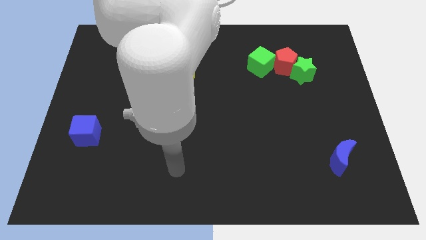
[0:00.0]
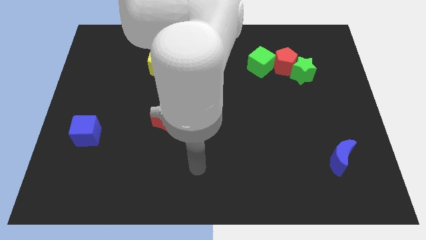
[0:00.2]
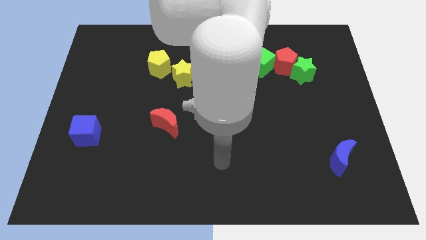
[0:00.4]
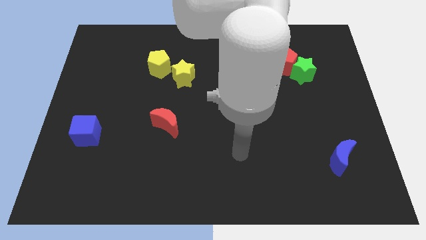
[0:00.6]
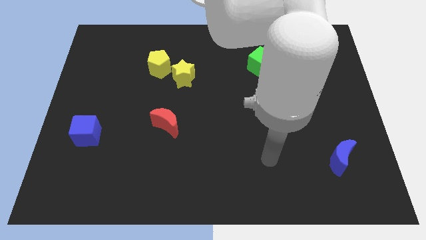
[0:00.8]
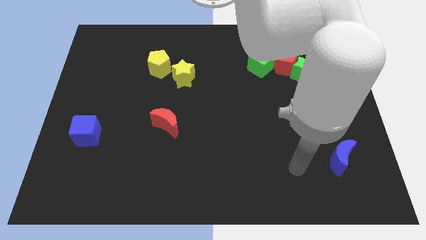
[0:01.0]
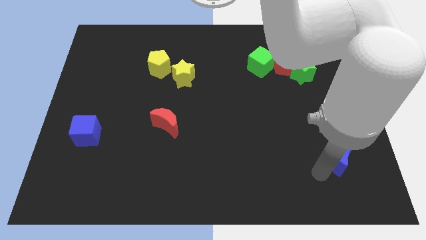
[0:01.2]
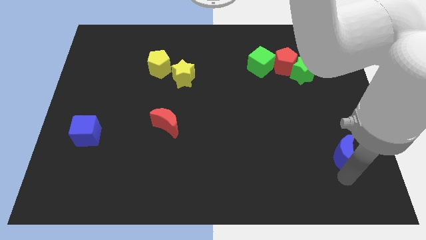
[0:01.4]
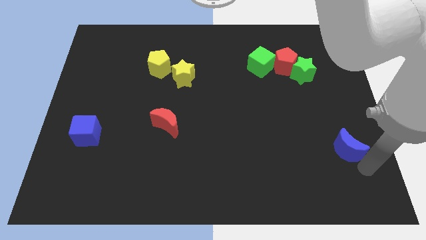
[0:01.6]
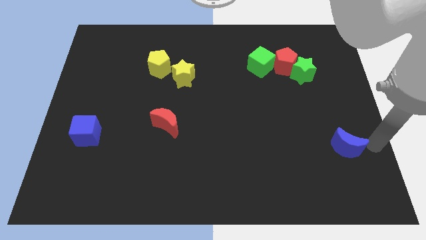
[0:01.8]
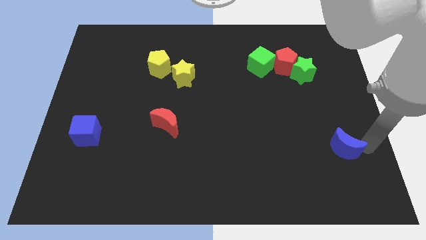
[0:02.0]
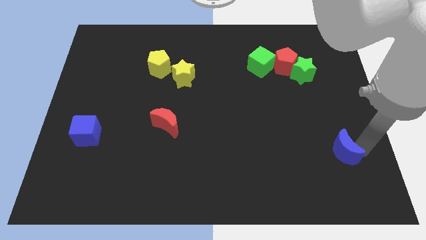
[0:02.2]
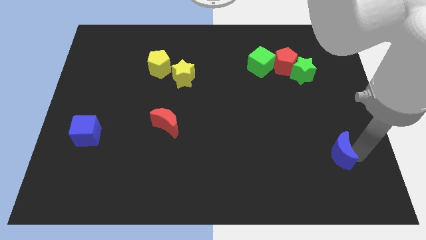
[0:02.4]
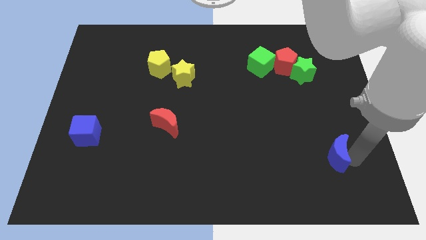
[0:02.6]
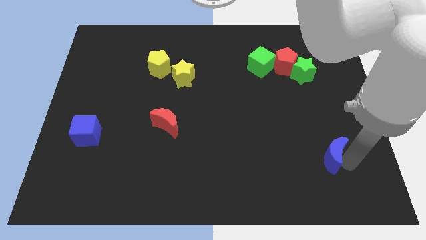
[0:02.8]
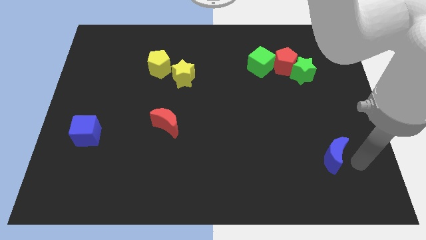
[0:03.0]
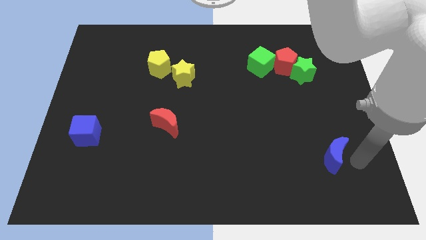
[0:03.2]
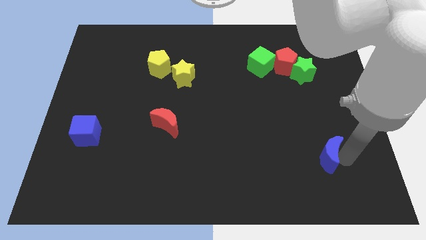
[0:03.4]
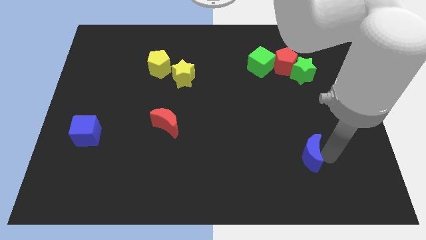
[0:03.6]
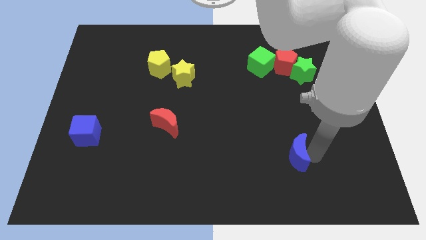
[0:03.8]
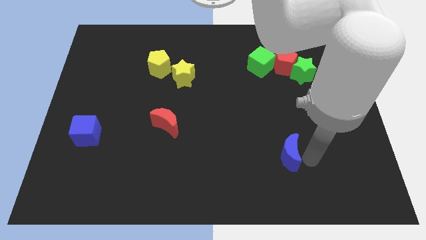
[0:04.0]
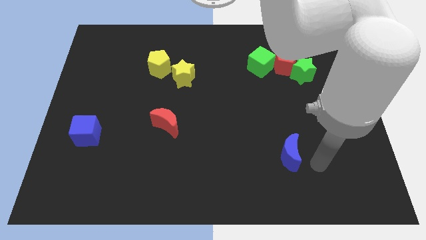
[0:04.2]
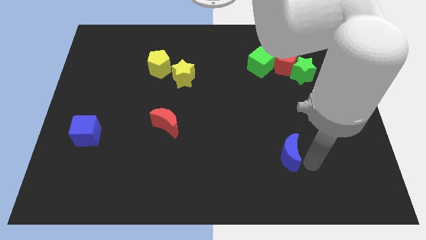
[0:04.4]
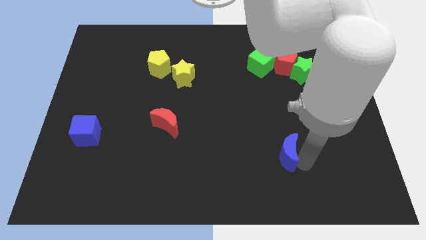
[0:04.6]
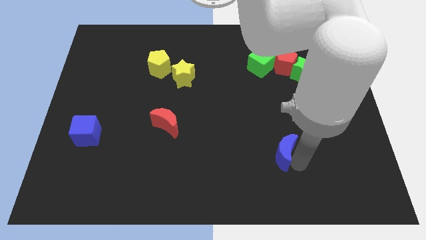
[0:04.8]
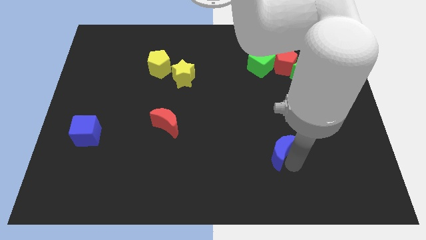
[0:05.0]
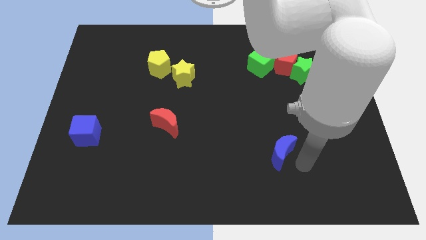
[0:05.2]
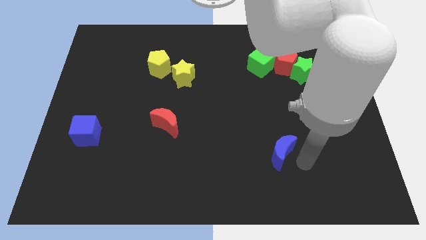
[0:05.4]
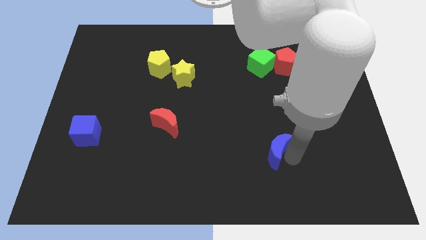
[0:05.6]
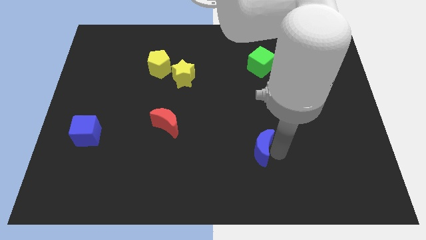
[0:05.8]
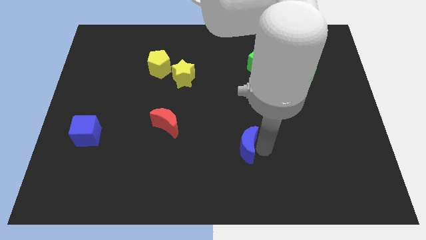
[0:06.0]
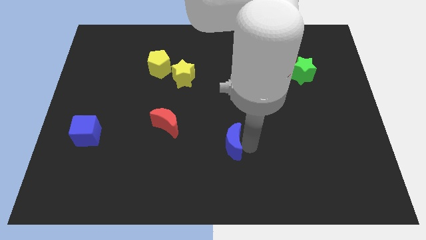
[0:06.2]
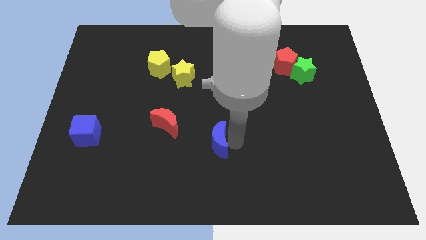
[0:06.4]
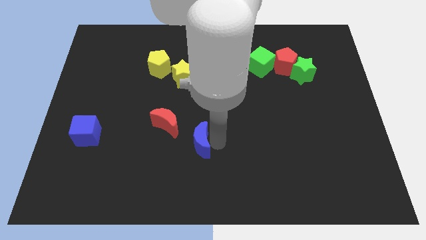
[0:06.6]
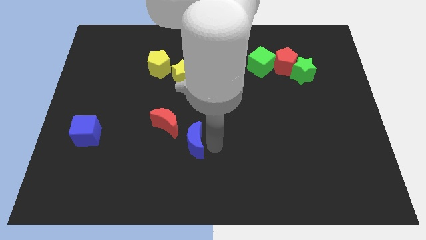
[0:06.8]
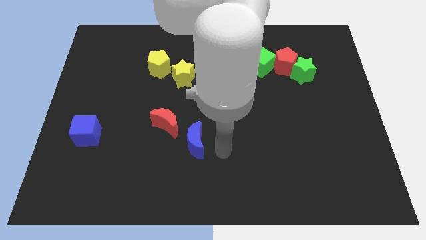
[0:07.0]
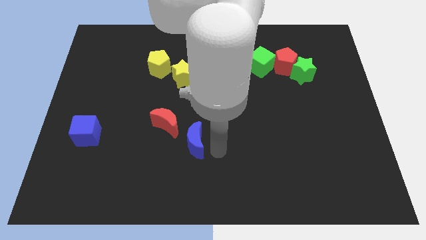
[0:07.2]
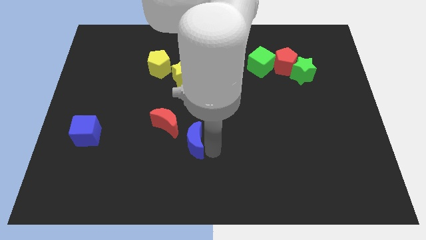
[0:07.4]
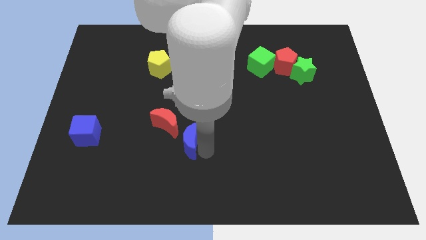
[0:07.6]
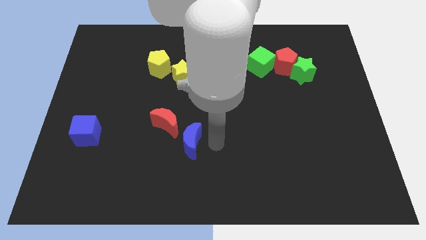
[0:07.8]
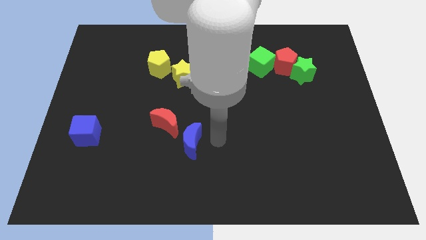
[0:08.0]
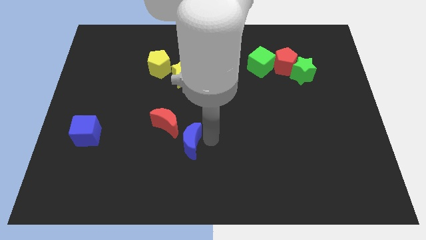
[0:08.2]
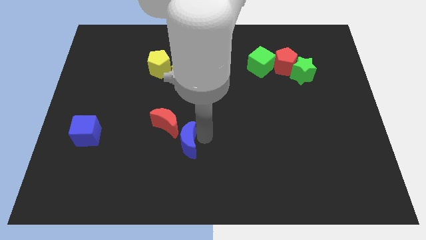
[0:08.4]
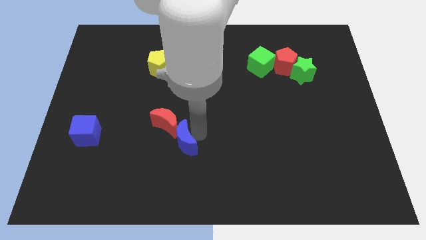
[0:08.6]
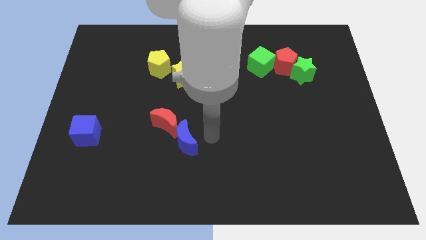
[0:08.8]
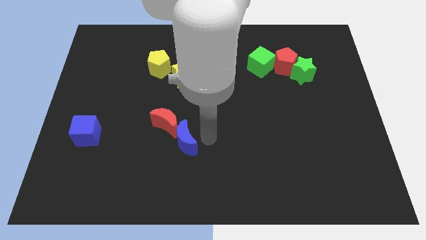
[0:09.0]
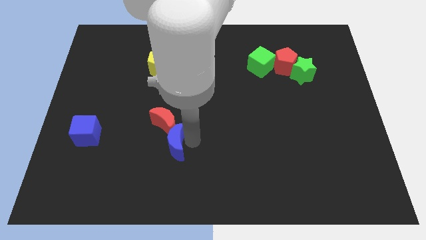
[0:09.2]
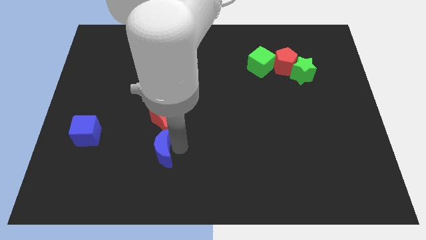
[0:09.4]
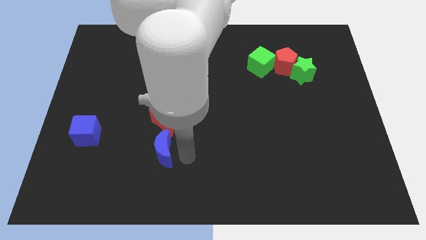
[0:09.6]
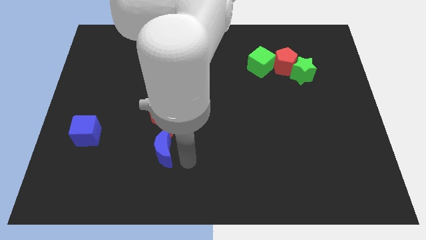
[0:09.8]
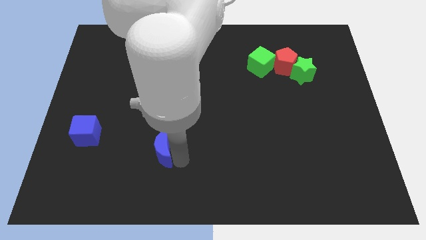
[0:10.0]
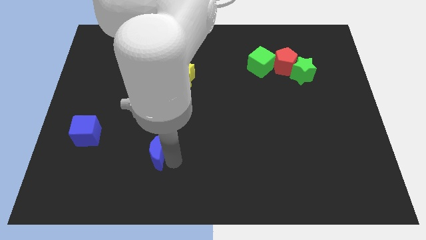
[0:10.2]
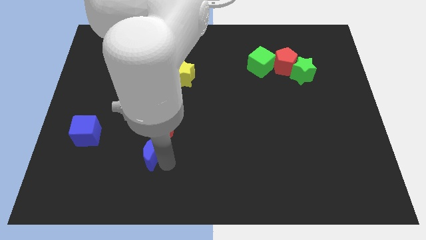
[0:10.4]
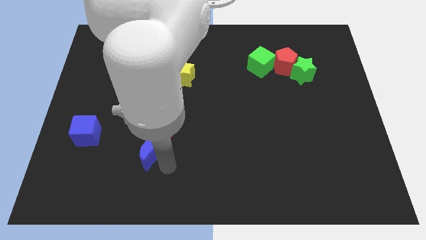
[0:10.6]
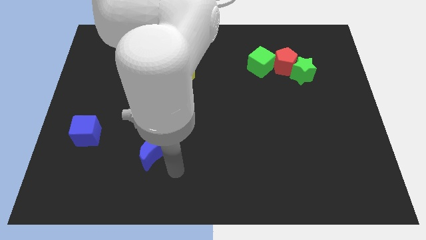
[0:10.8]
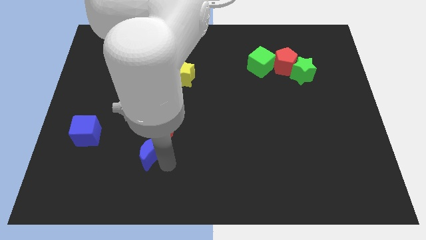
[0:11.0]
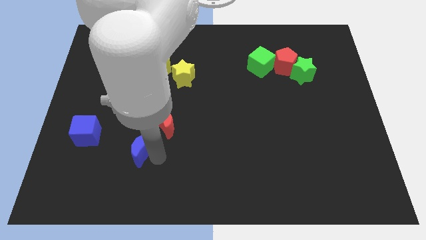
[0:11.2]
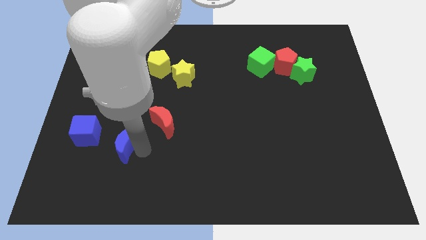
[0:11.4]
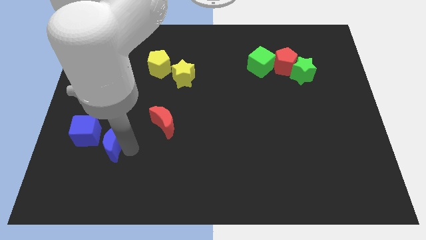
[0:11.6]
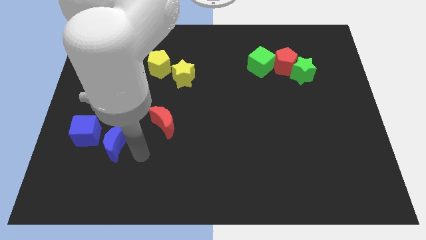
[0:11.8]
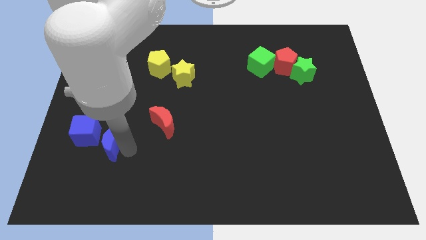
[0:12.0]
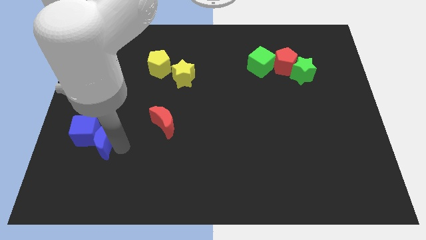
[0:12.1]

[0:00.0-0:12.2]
push the blue moon close to the blue cube

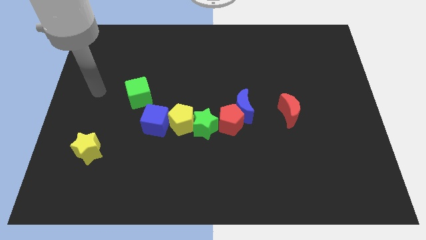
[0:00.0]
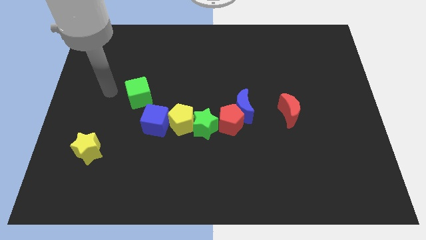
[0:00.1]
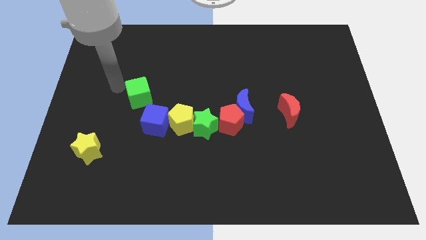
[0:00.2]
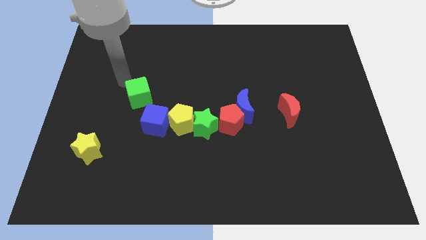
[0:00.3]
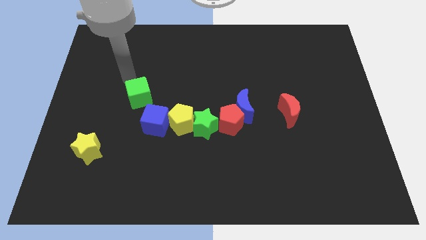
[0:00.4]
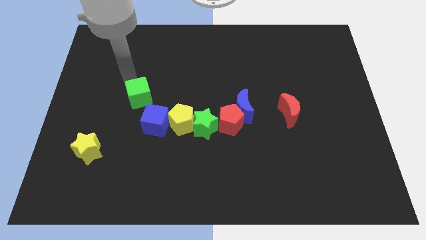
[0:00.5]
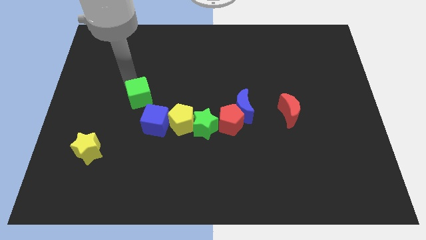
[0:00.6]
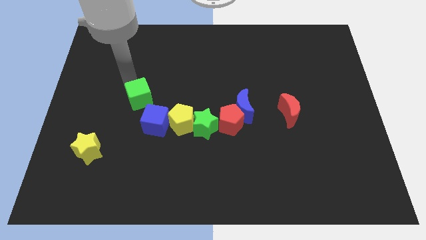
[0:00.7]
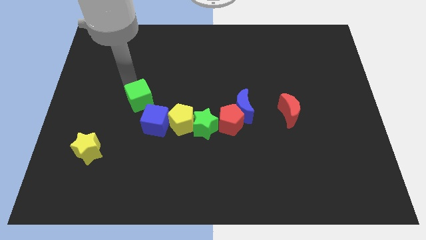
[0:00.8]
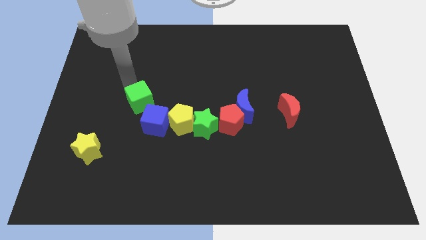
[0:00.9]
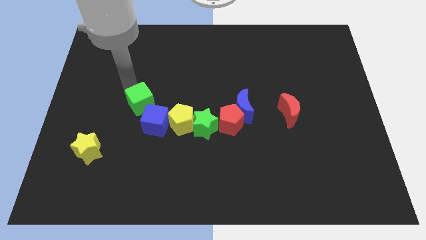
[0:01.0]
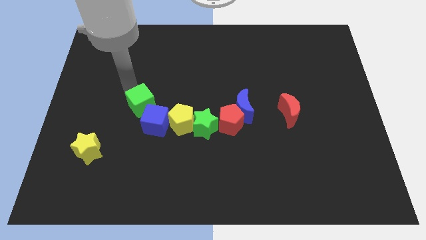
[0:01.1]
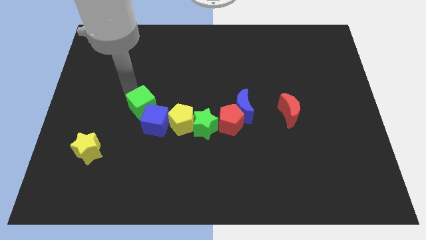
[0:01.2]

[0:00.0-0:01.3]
push the green cube to the blue cube
